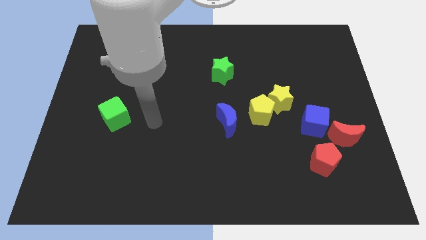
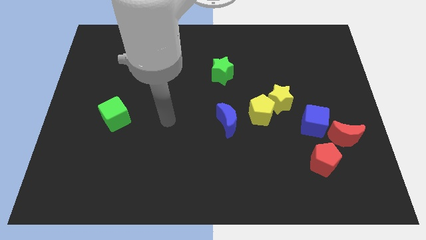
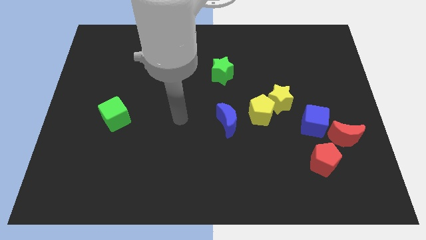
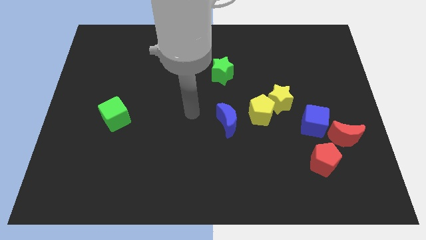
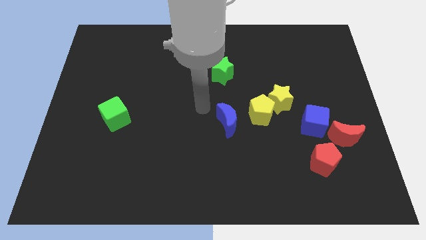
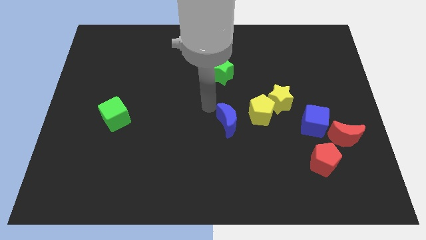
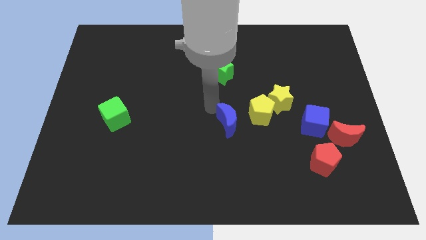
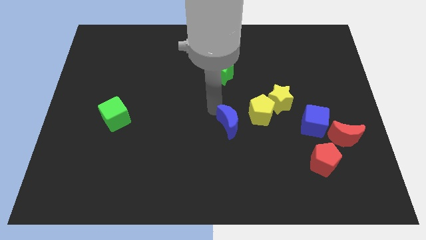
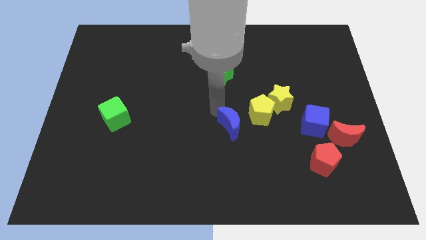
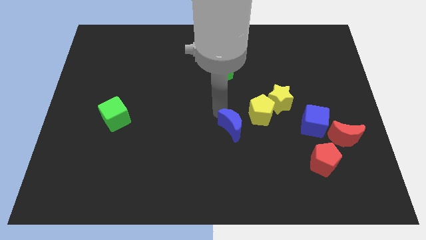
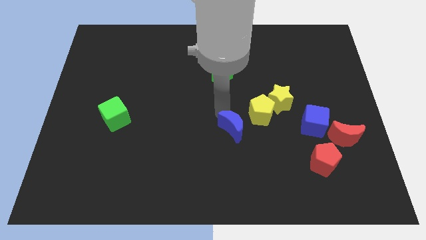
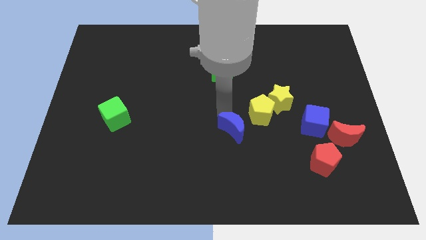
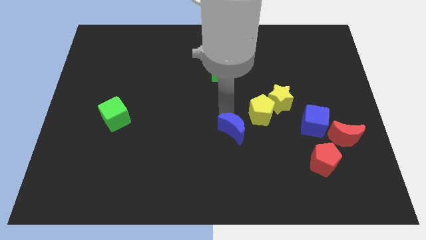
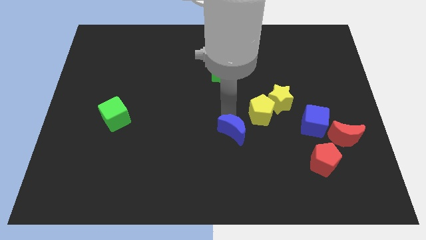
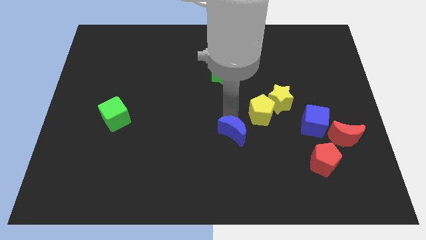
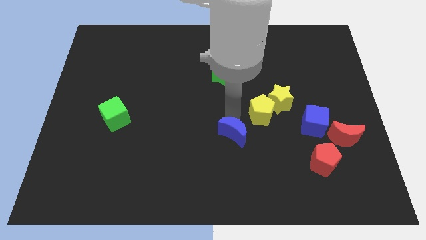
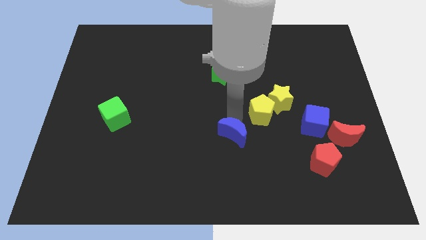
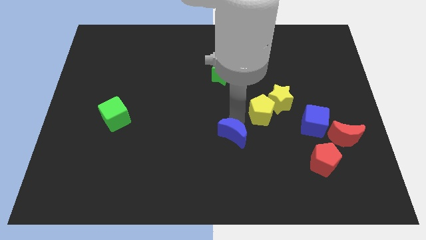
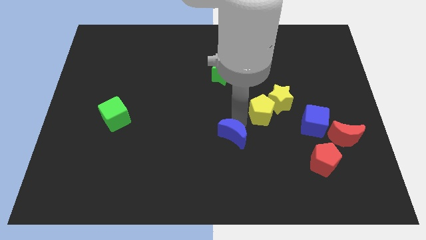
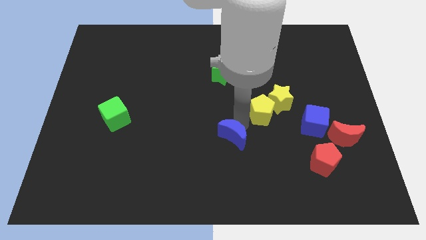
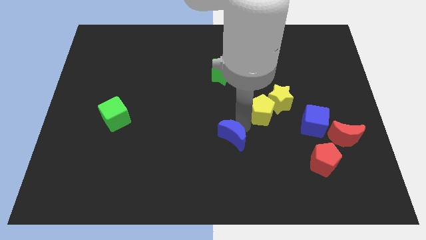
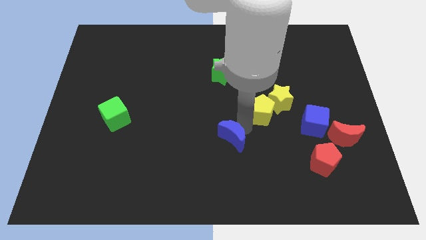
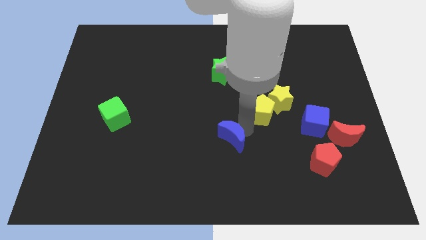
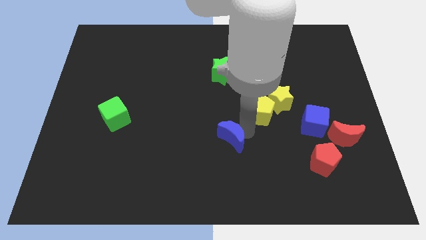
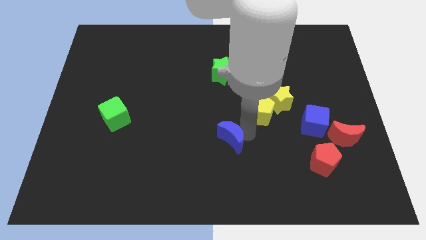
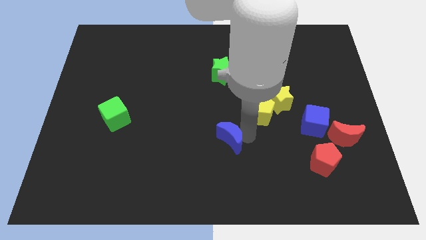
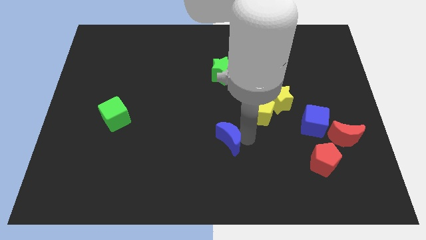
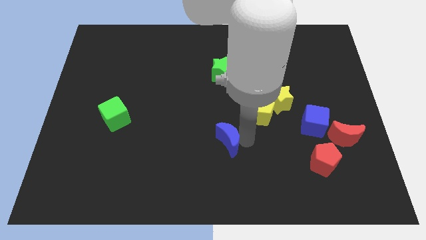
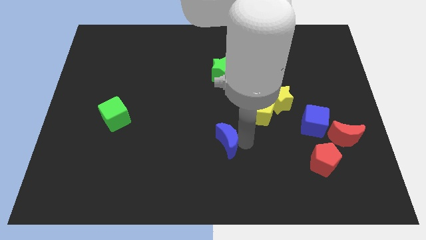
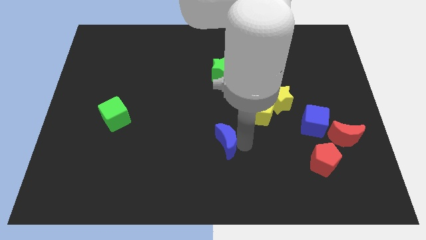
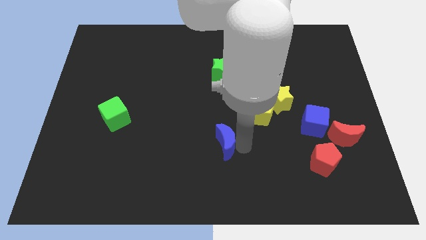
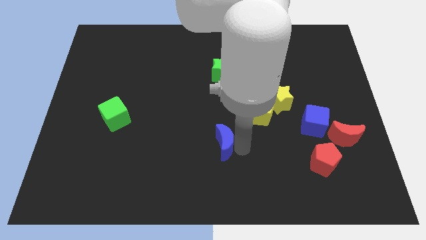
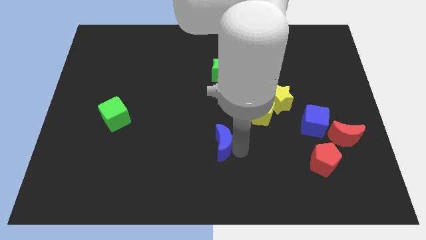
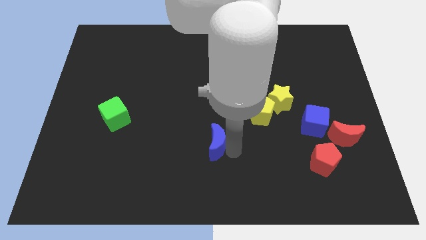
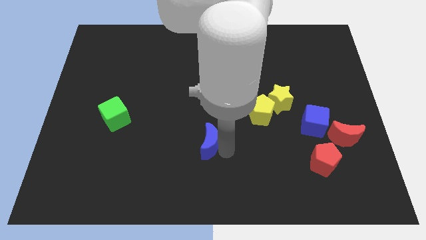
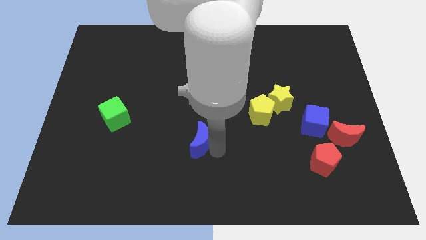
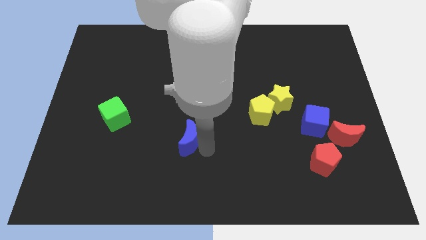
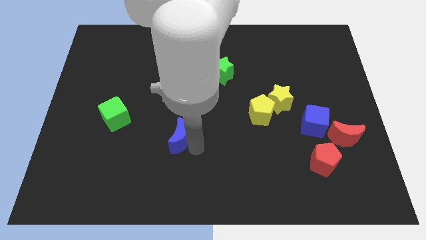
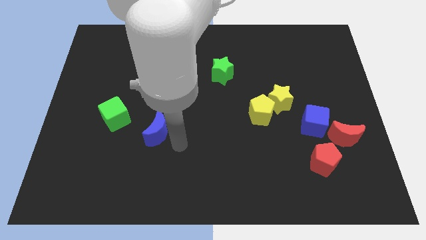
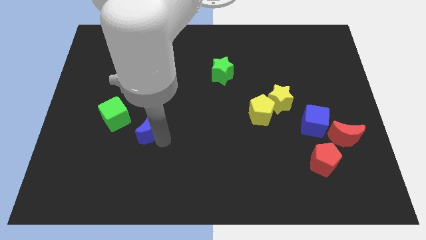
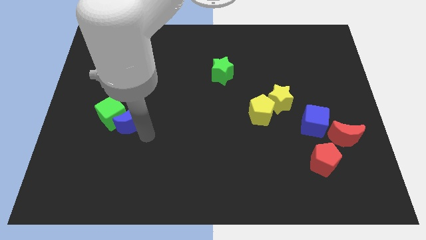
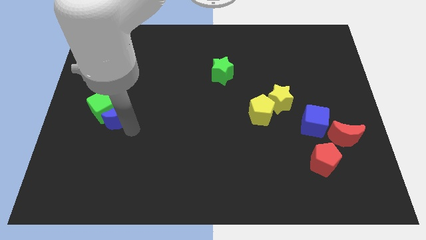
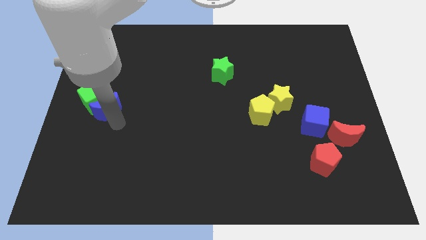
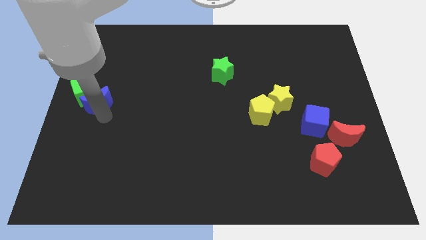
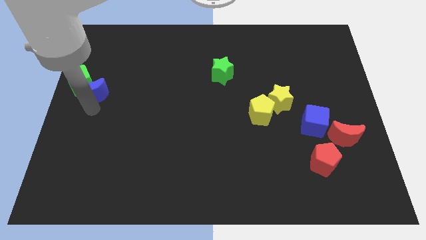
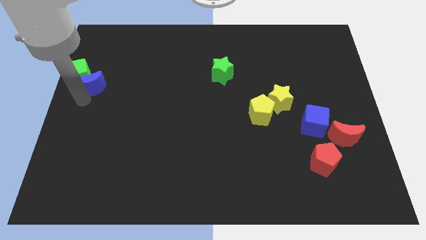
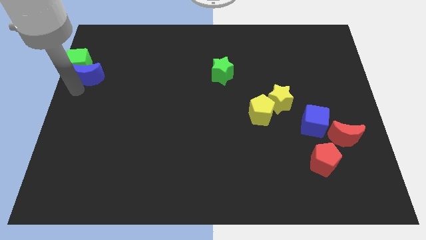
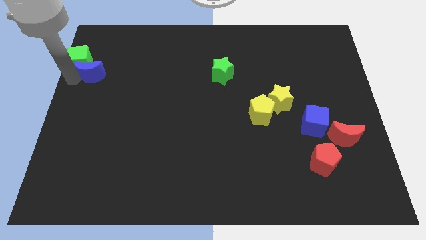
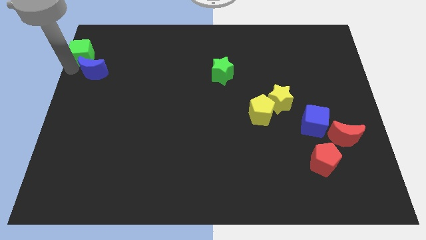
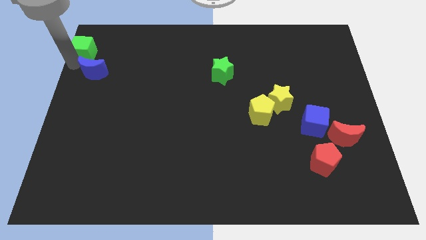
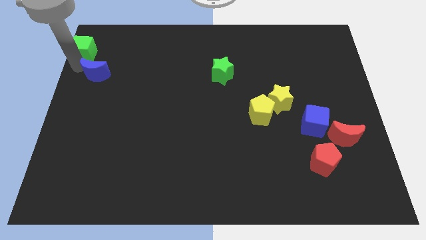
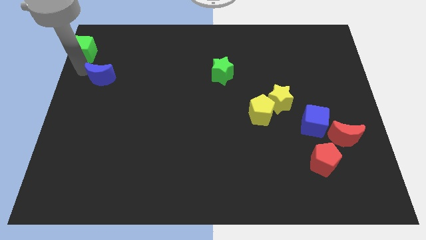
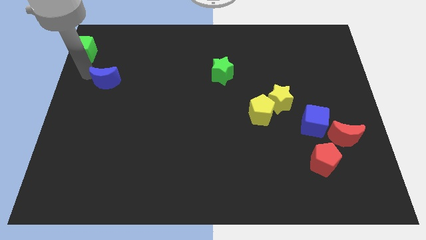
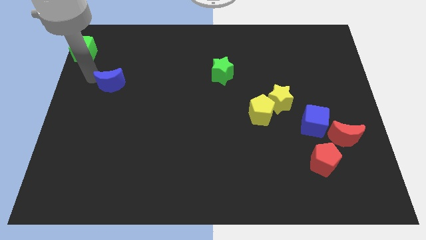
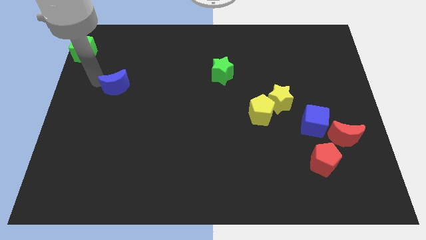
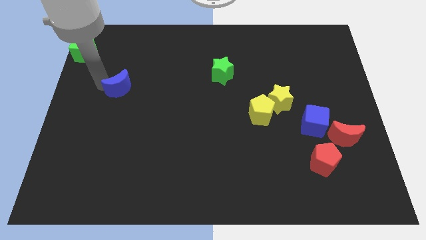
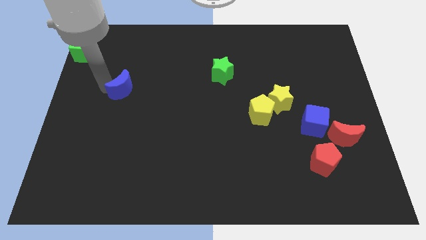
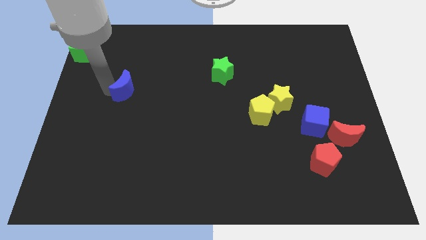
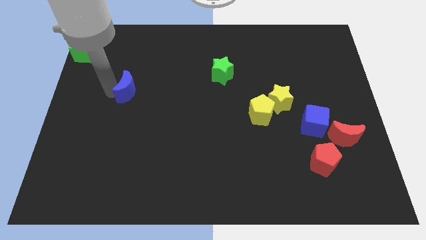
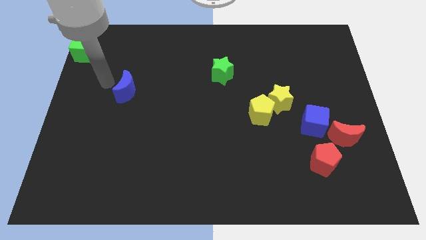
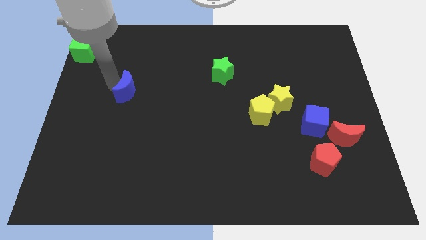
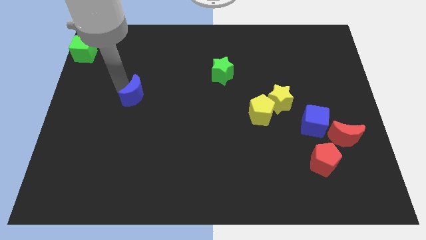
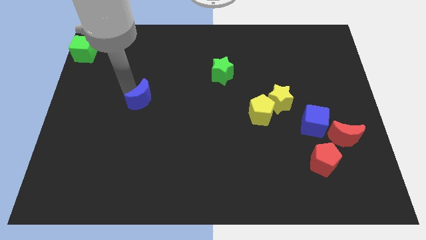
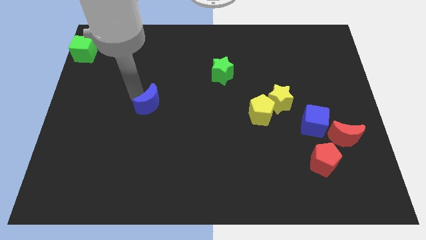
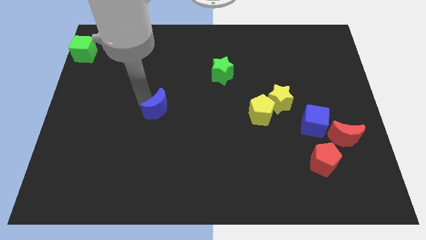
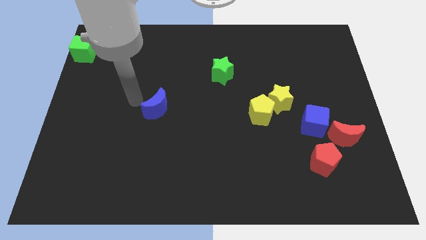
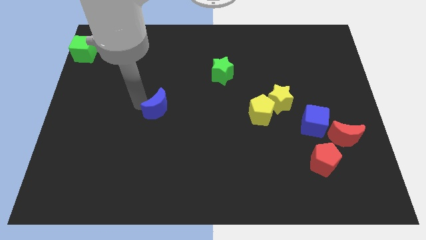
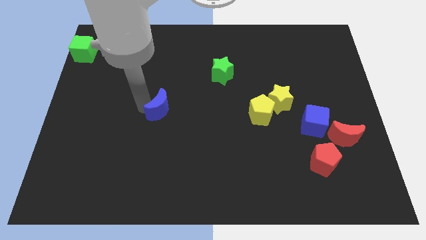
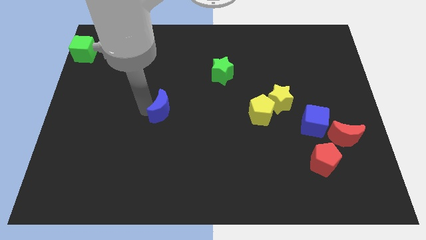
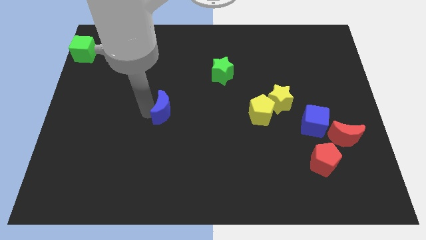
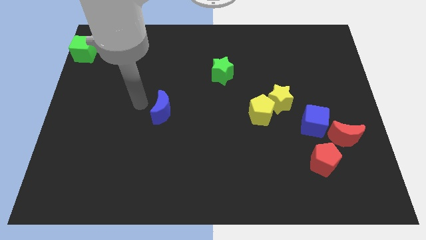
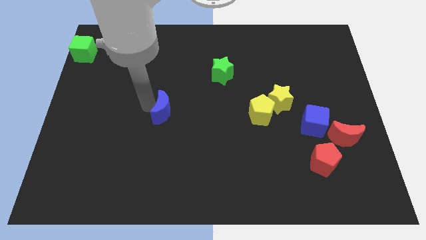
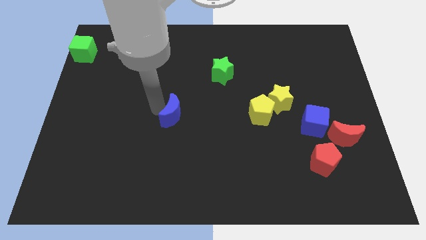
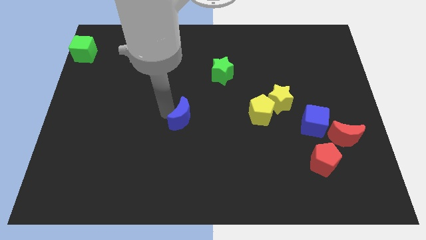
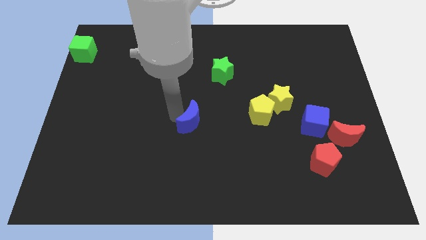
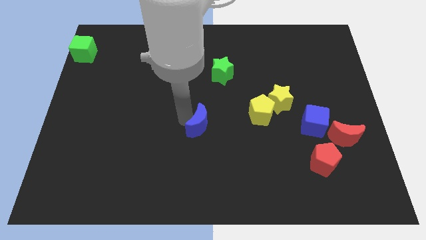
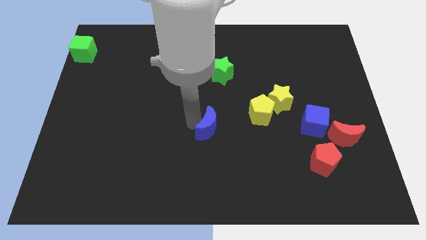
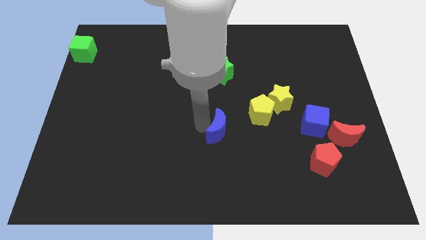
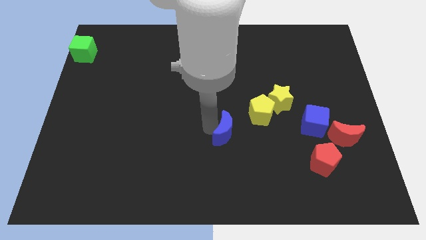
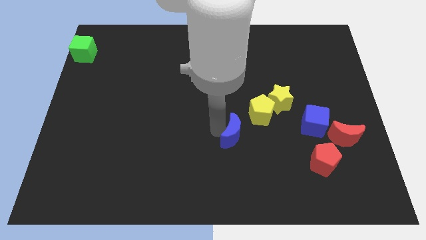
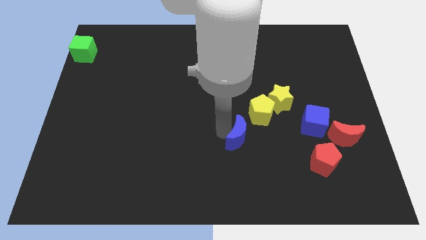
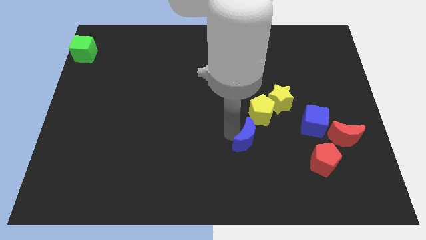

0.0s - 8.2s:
move the blue moon to the bottom of the yellow pentagon
